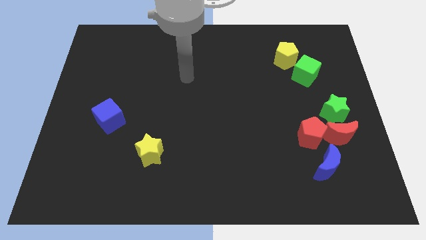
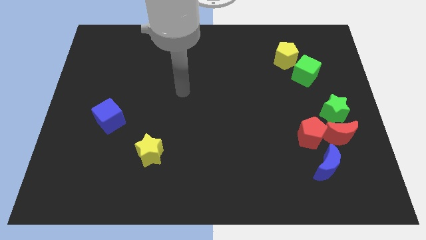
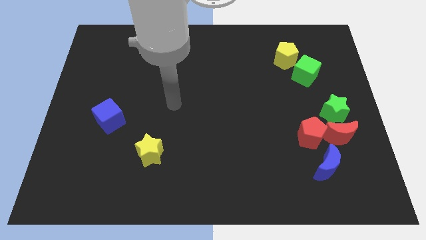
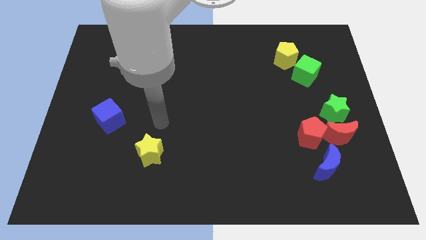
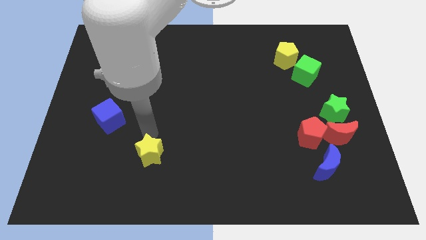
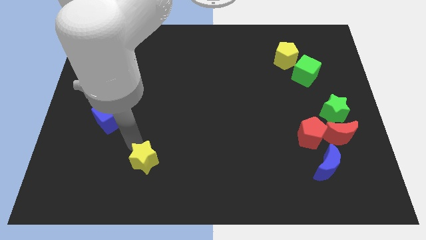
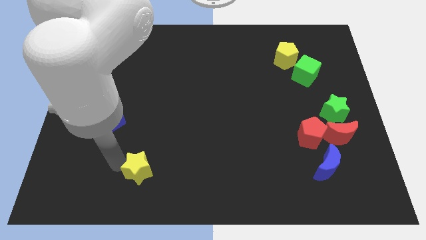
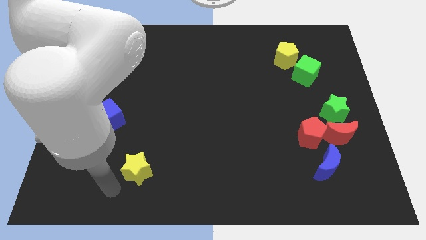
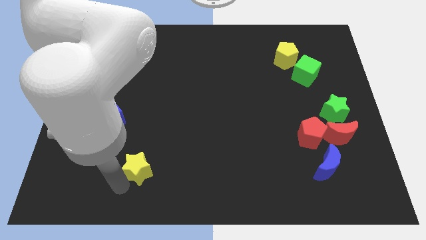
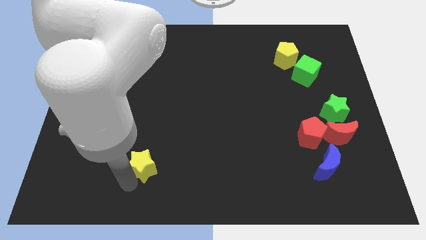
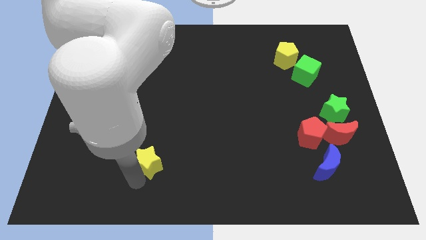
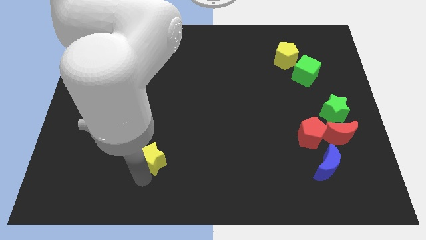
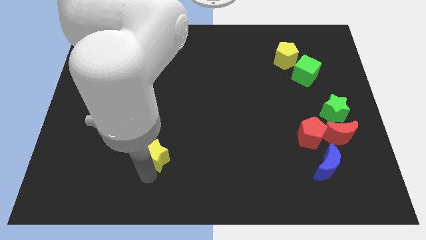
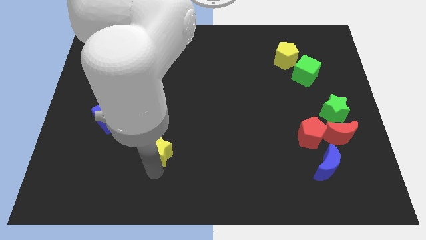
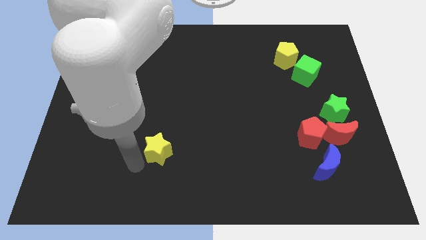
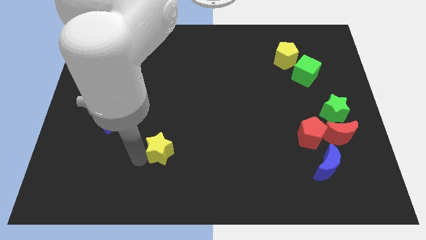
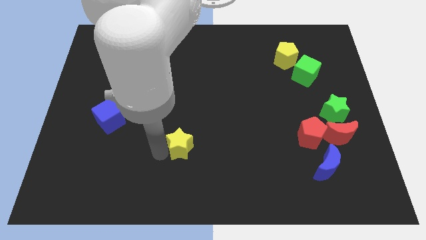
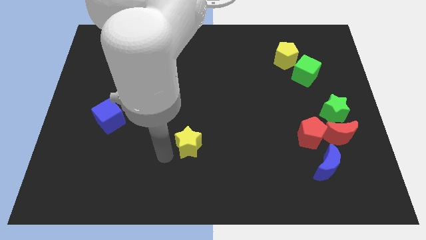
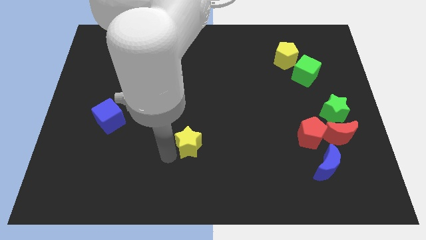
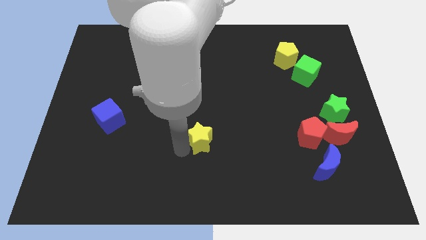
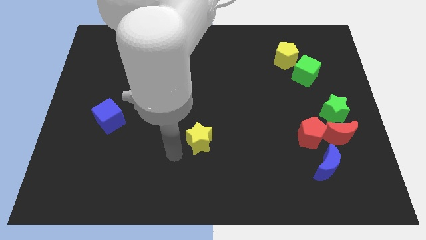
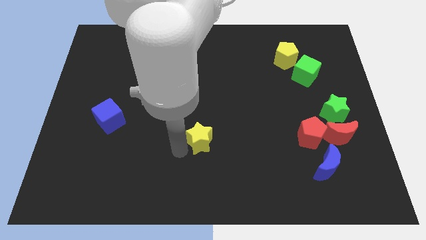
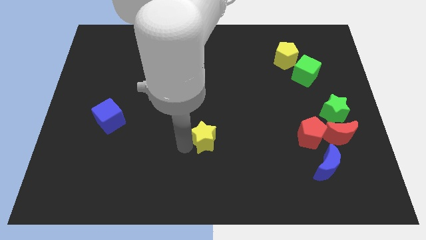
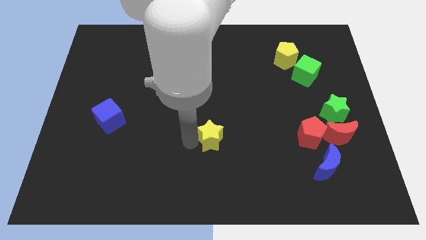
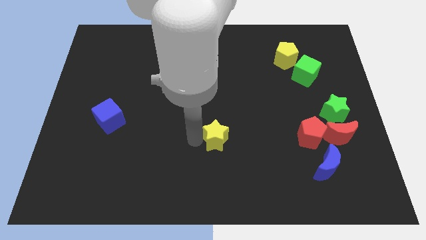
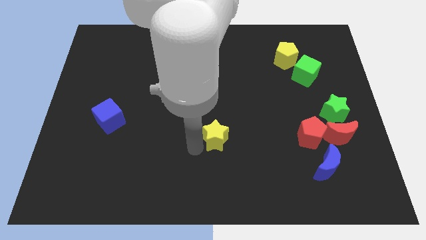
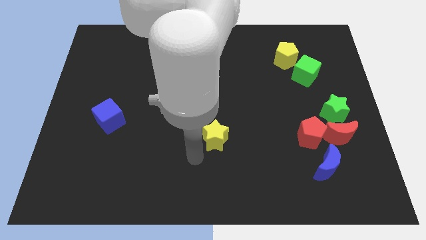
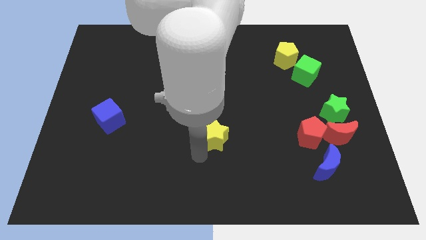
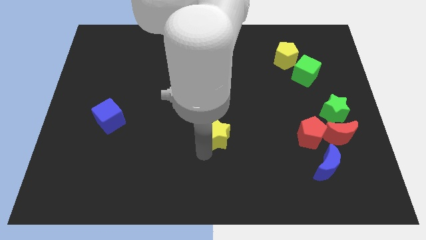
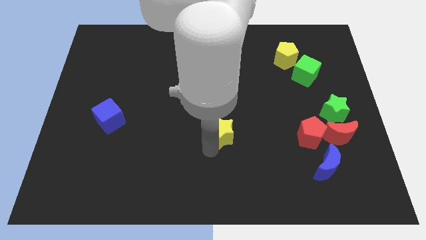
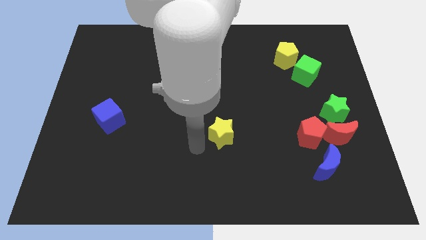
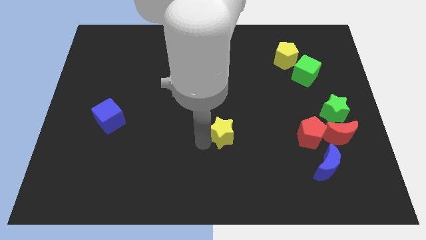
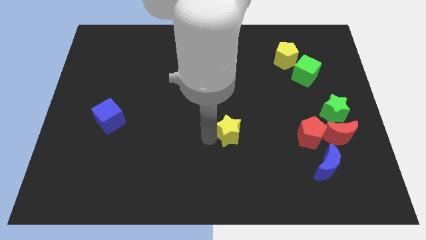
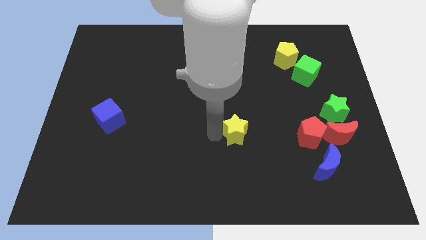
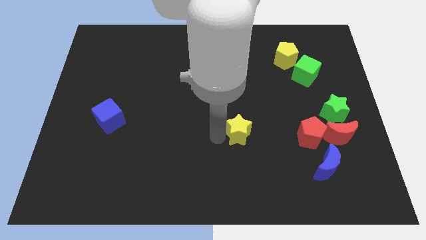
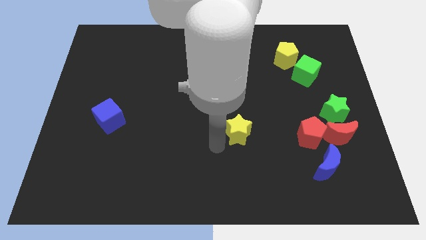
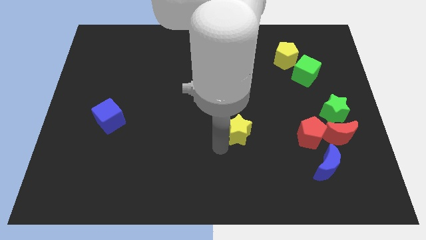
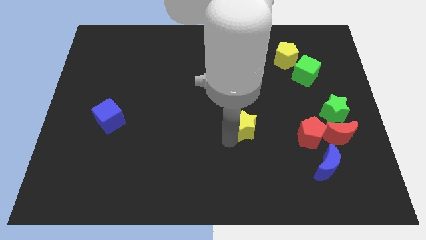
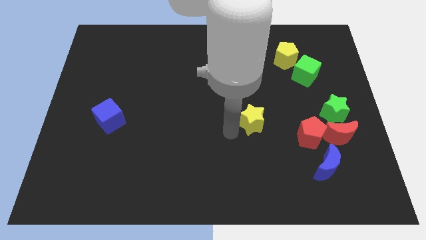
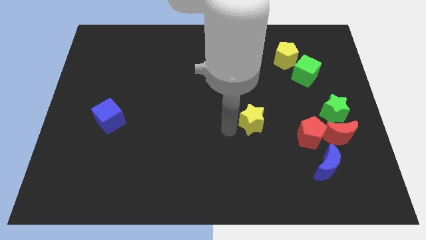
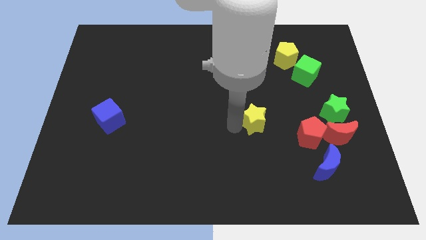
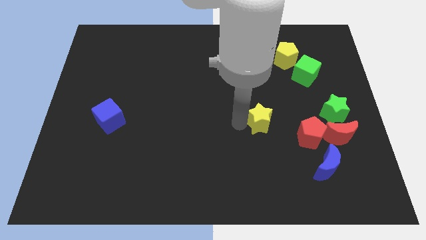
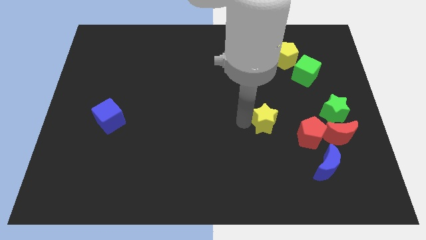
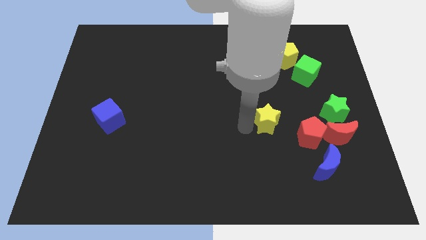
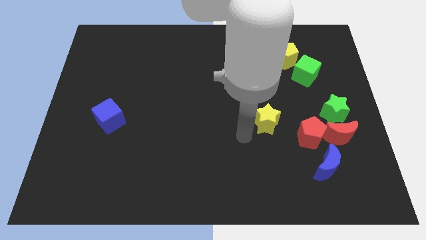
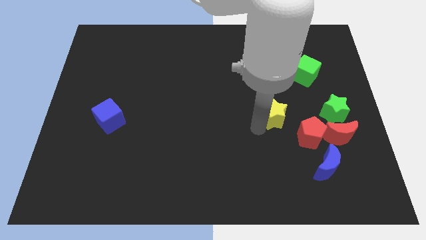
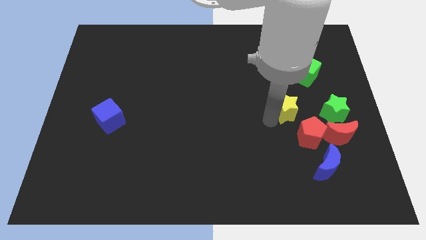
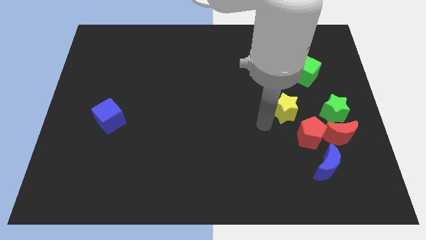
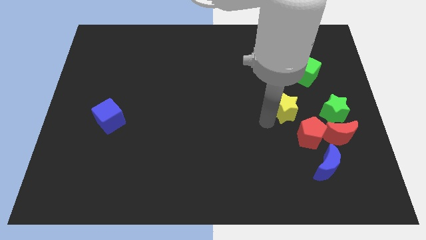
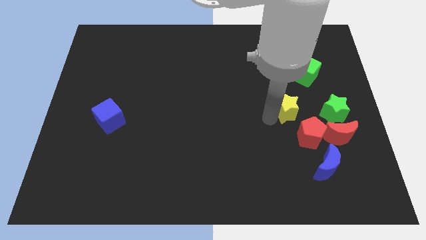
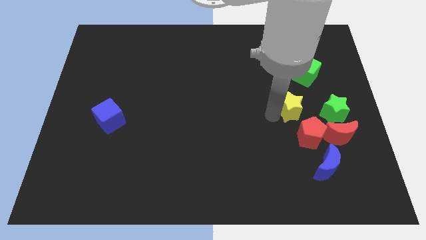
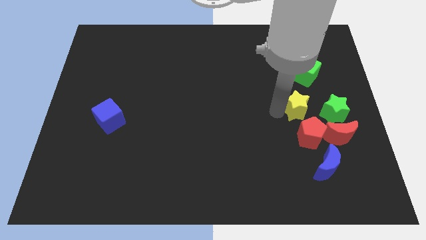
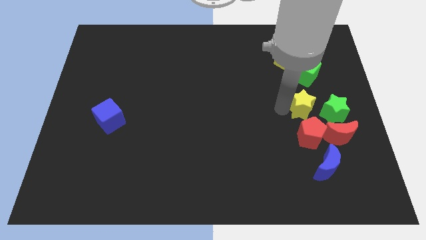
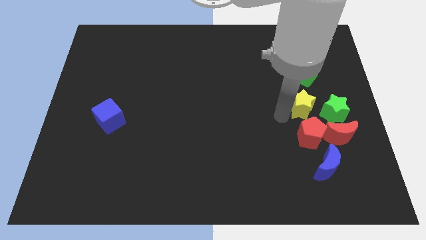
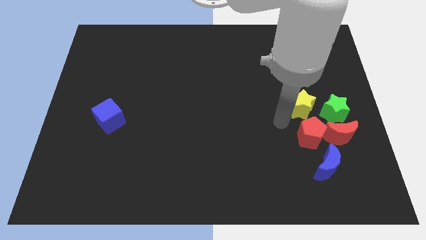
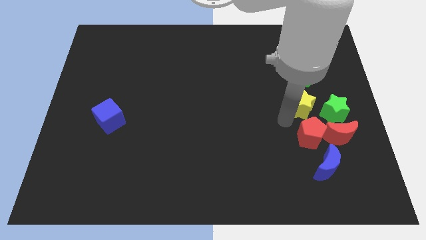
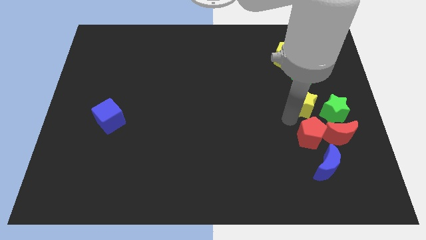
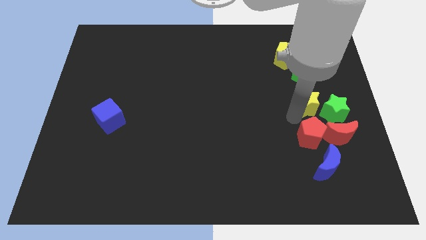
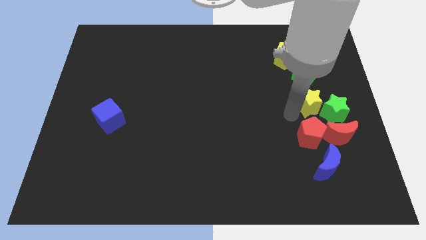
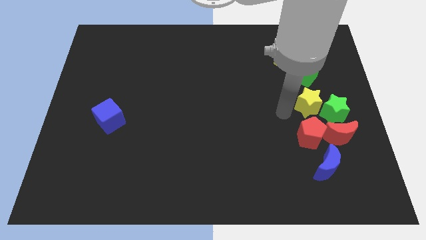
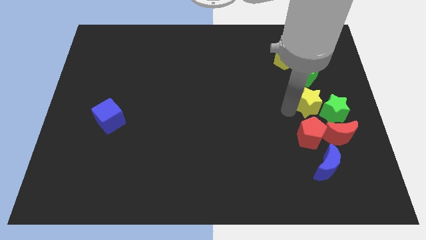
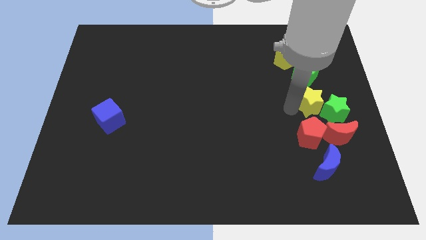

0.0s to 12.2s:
slide the yellow star above the red moon

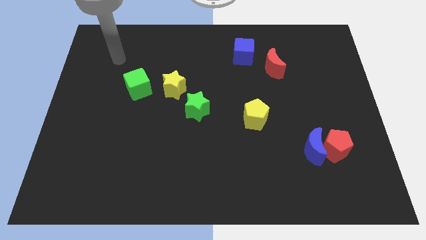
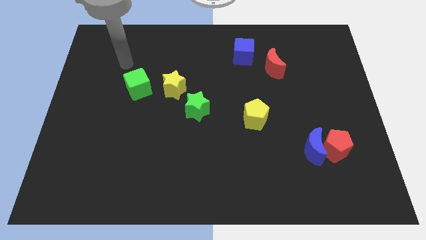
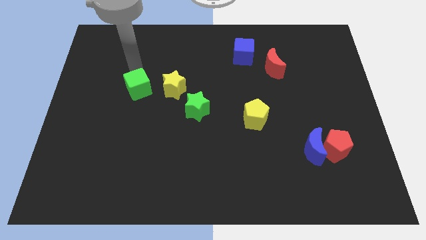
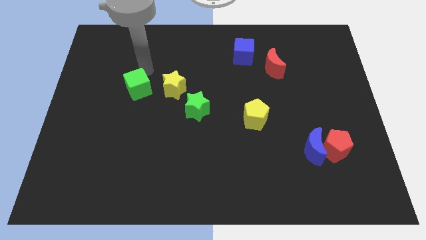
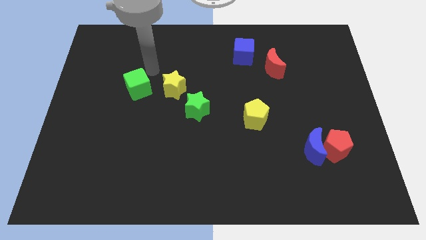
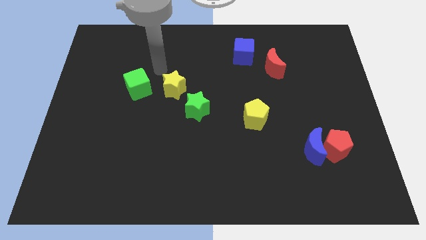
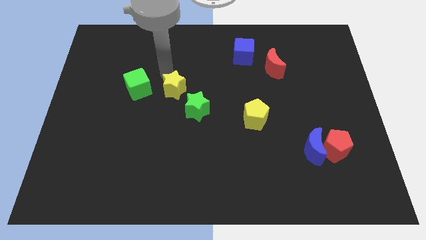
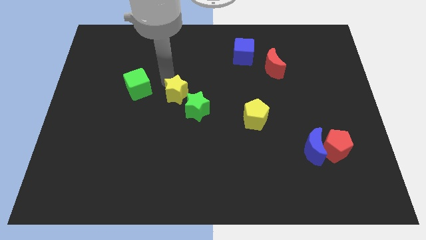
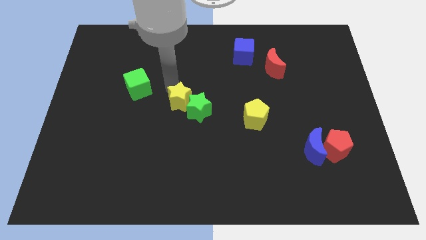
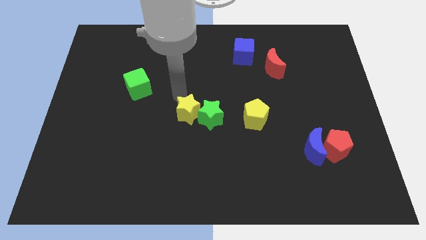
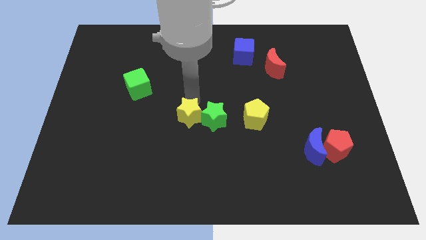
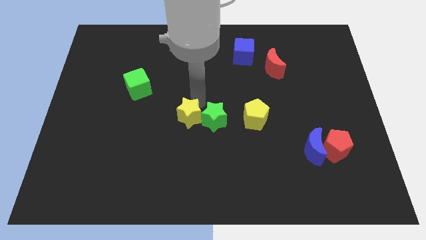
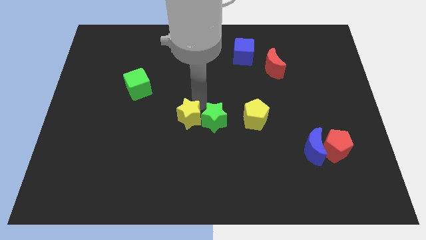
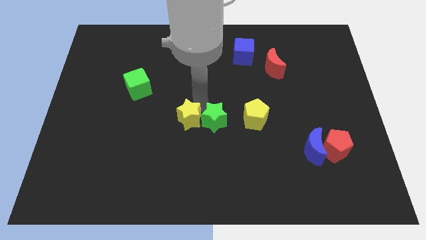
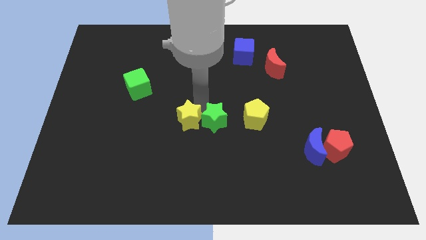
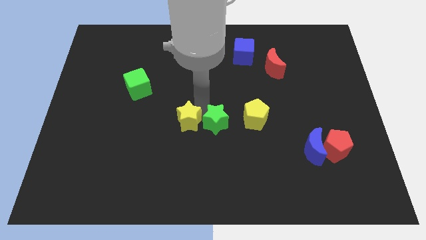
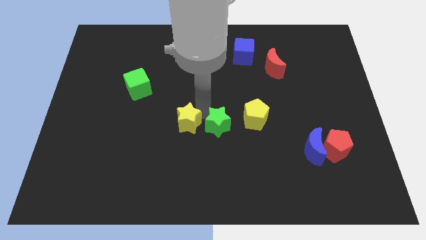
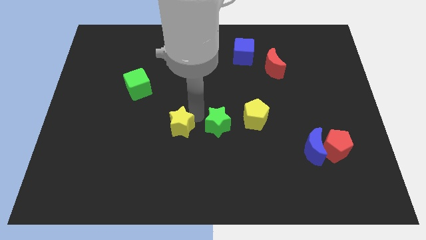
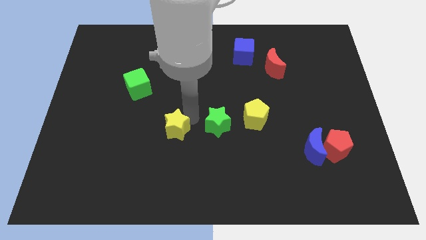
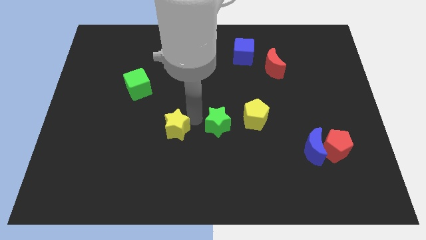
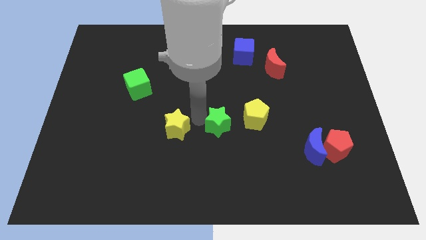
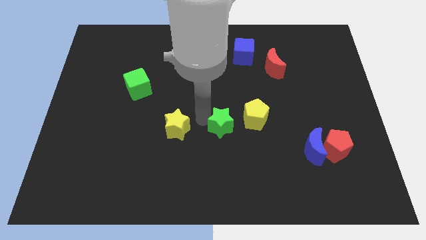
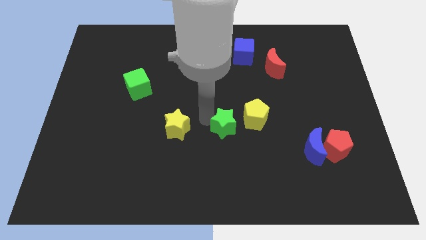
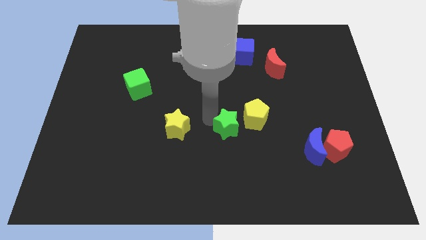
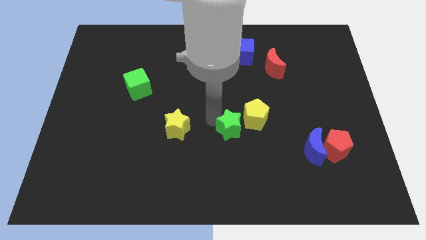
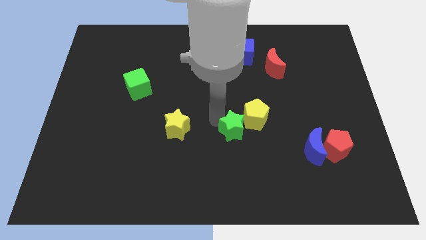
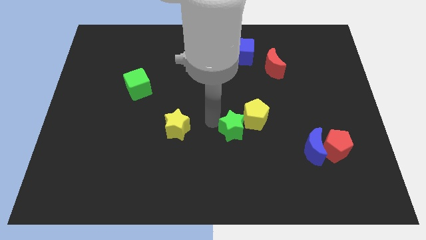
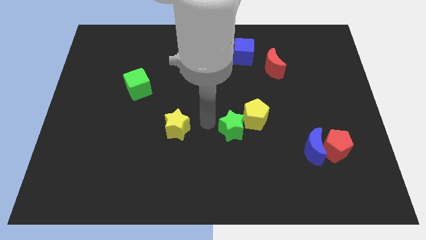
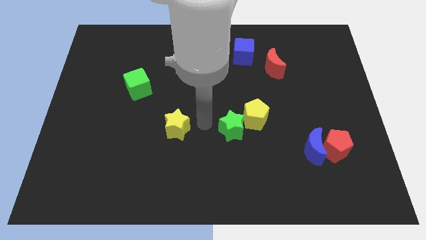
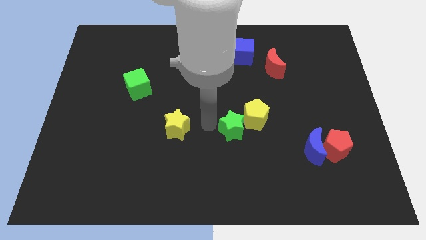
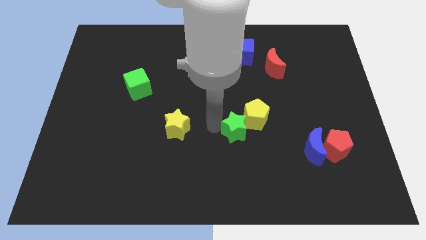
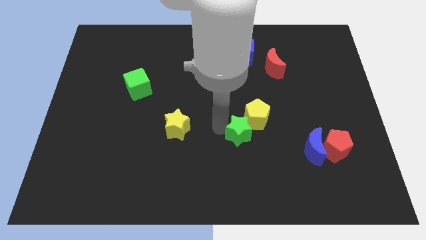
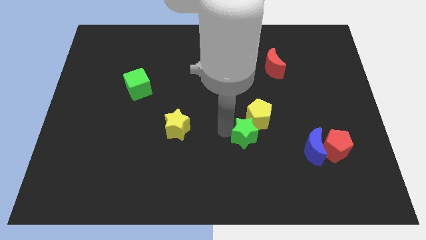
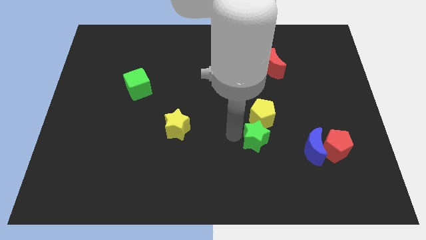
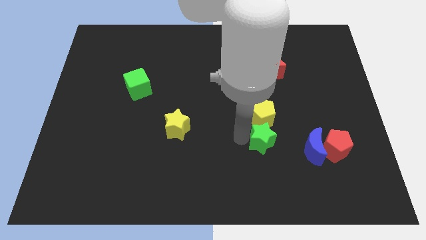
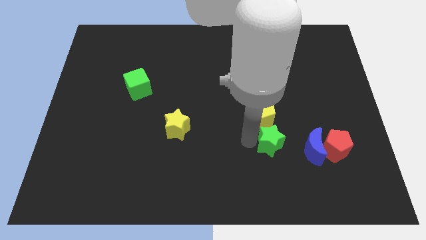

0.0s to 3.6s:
slide the green star to the bottom right side of the yellow pentagon
